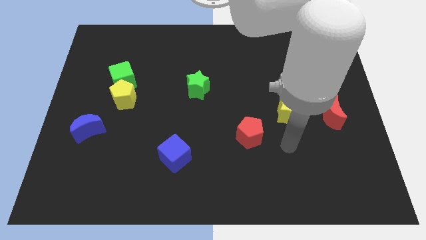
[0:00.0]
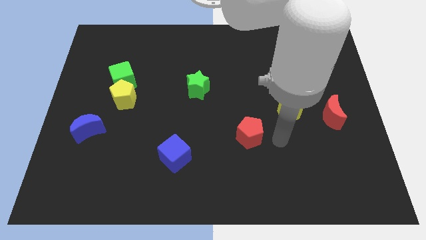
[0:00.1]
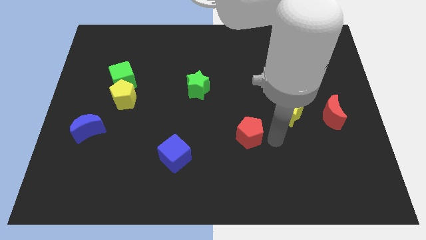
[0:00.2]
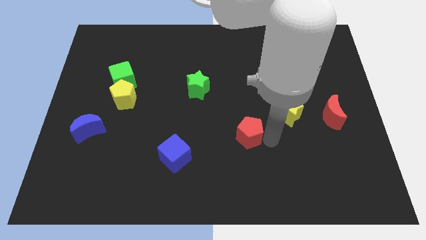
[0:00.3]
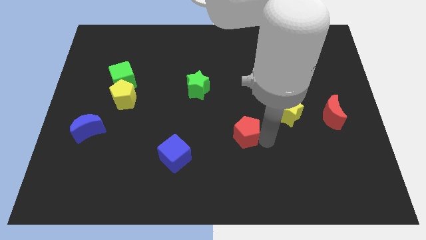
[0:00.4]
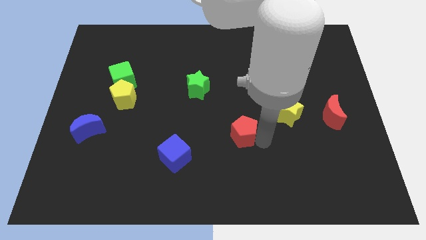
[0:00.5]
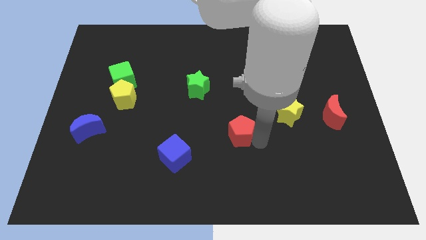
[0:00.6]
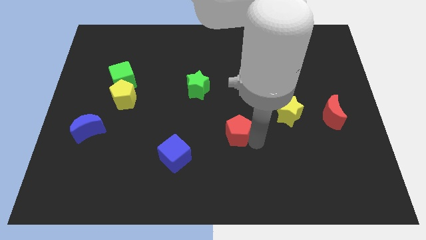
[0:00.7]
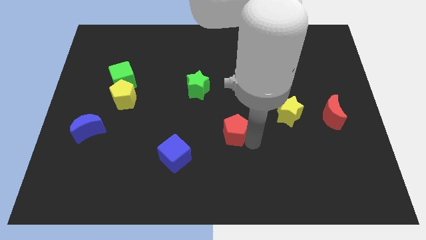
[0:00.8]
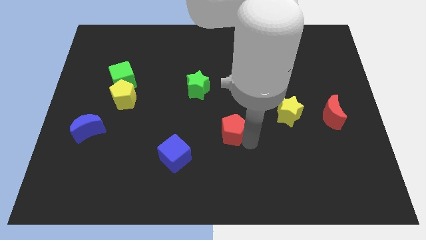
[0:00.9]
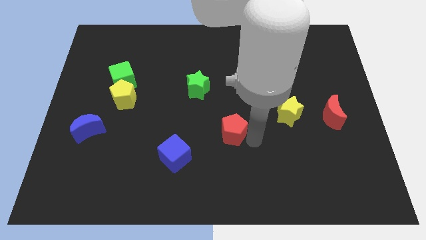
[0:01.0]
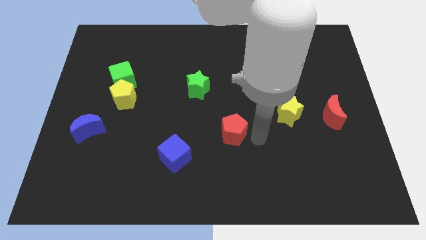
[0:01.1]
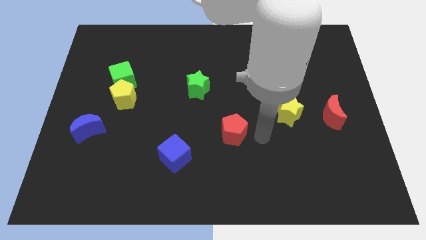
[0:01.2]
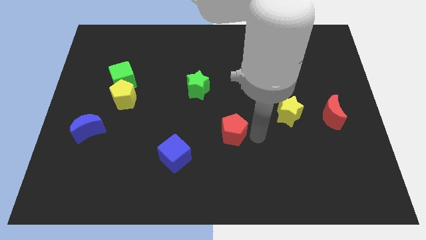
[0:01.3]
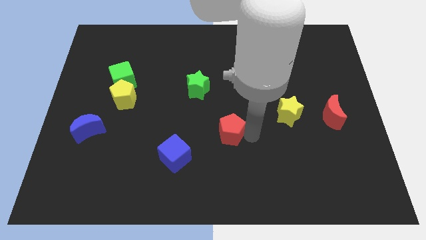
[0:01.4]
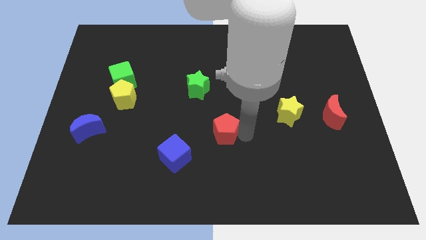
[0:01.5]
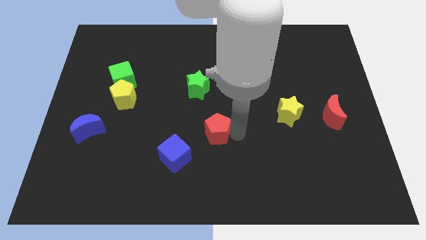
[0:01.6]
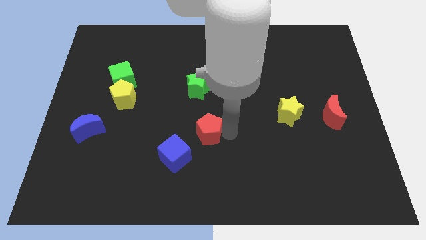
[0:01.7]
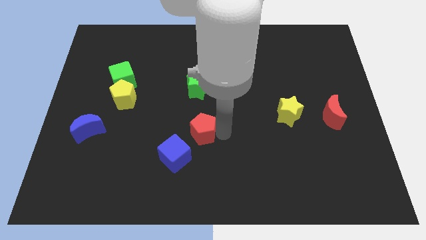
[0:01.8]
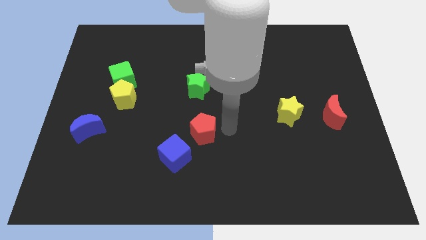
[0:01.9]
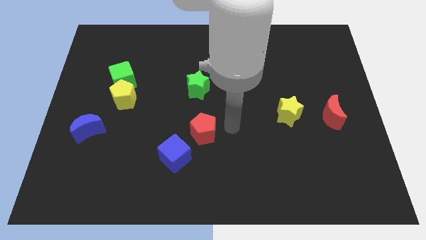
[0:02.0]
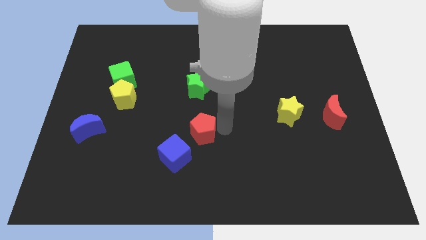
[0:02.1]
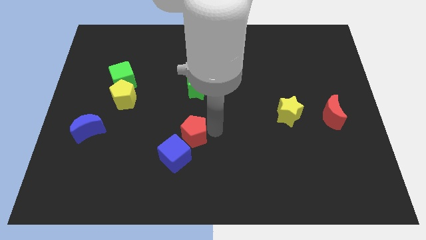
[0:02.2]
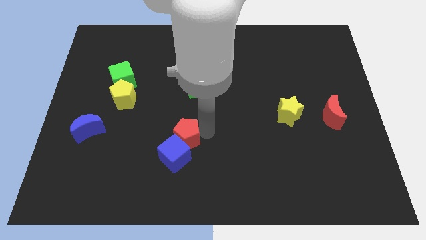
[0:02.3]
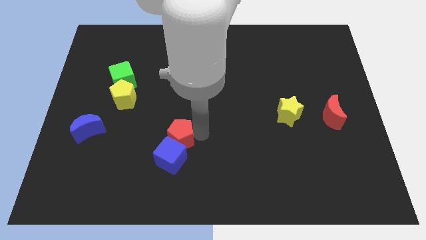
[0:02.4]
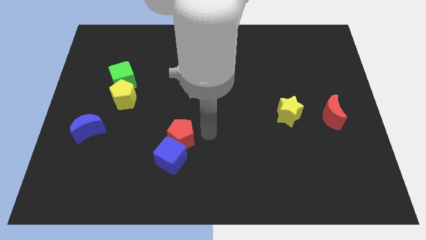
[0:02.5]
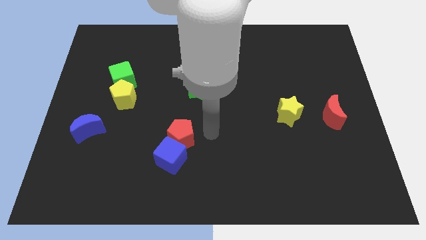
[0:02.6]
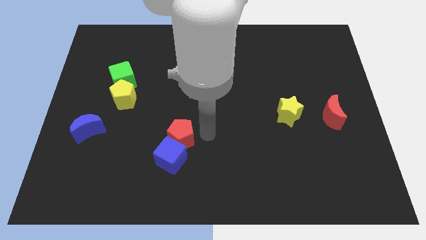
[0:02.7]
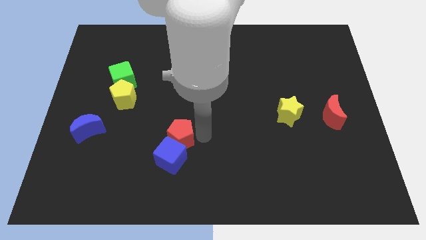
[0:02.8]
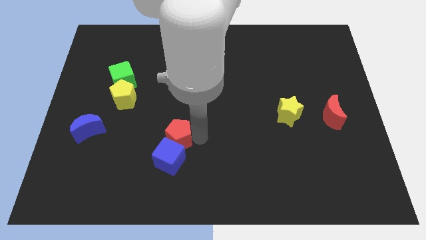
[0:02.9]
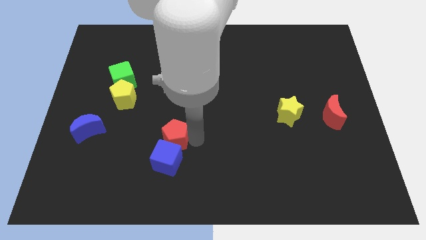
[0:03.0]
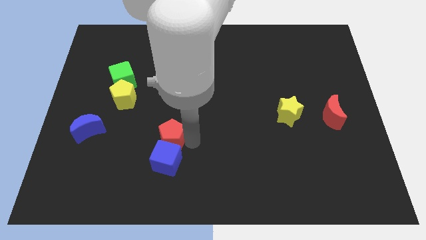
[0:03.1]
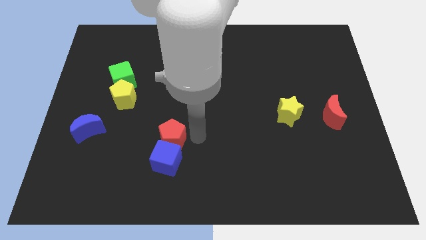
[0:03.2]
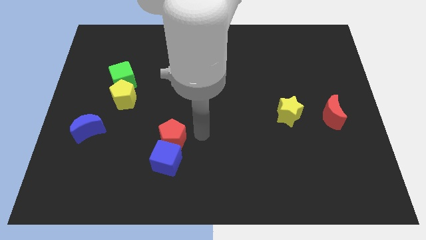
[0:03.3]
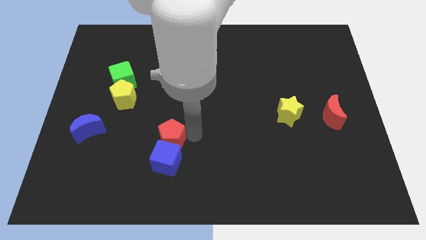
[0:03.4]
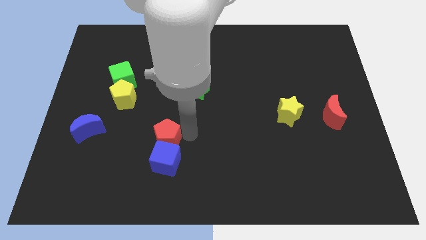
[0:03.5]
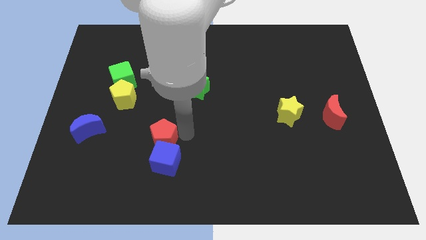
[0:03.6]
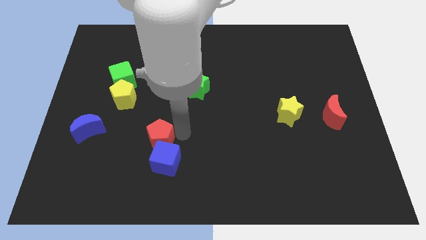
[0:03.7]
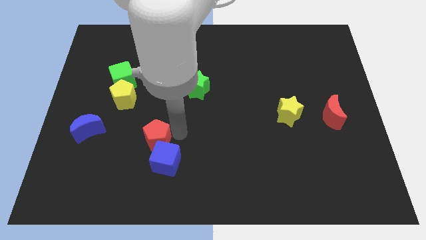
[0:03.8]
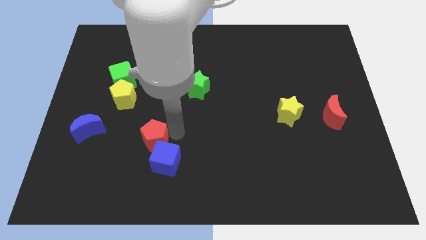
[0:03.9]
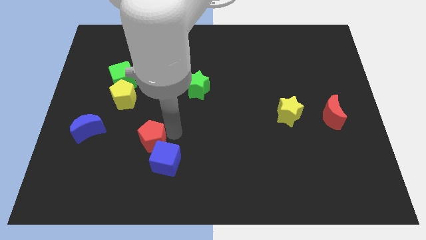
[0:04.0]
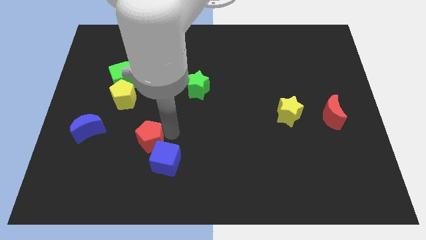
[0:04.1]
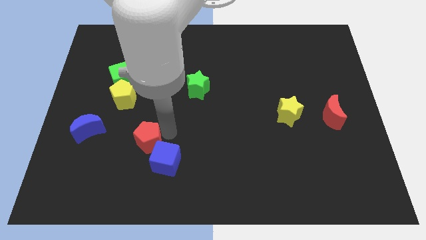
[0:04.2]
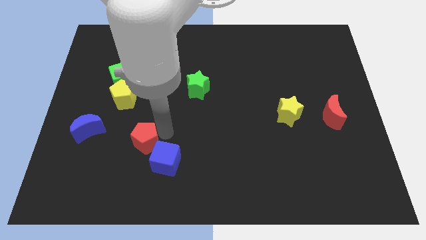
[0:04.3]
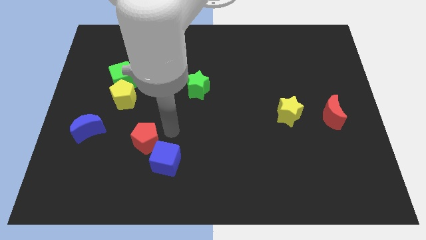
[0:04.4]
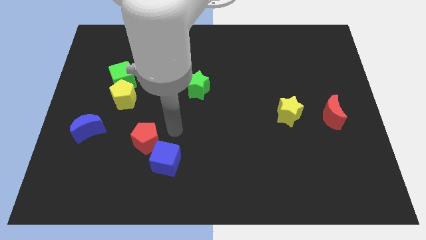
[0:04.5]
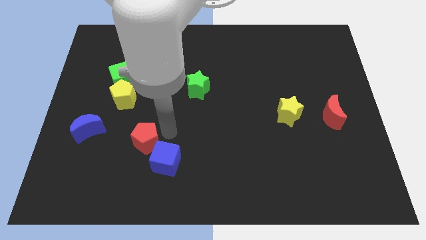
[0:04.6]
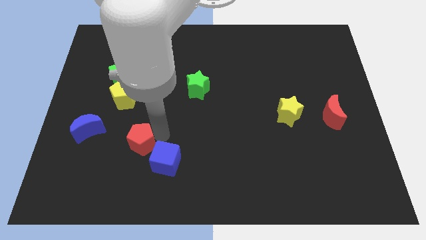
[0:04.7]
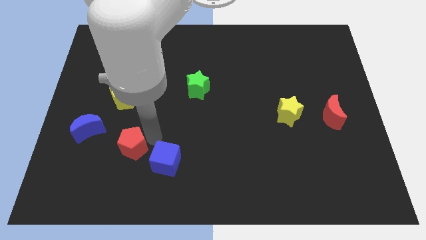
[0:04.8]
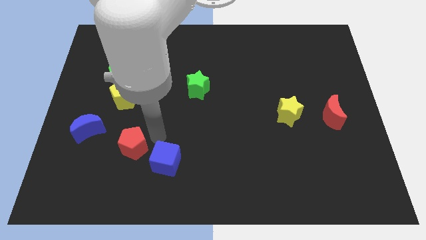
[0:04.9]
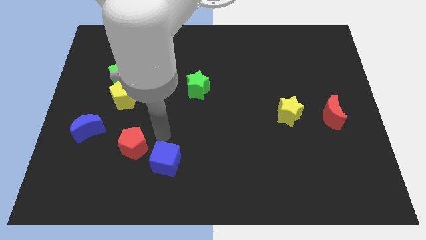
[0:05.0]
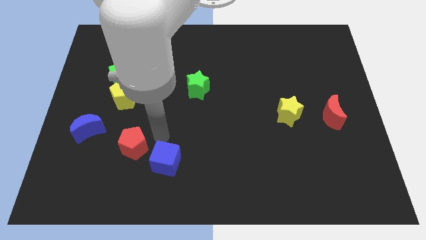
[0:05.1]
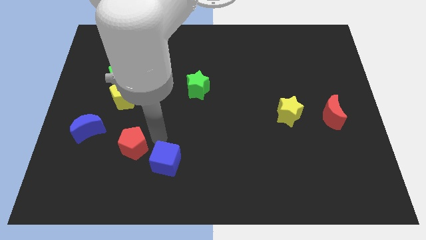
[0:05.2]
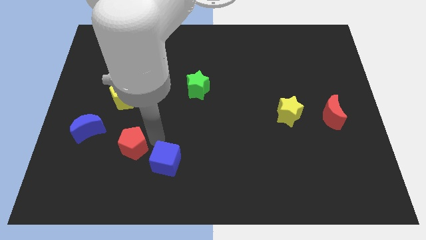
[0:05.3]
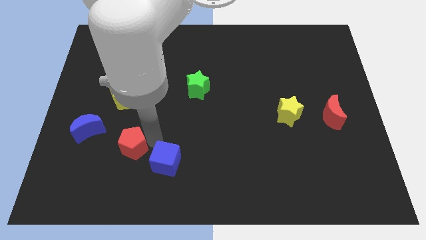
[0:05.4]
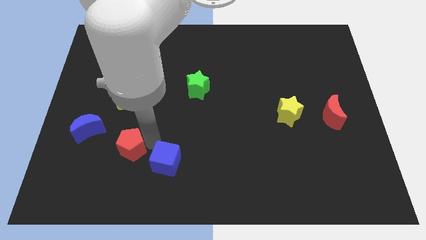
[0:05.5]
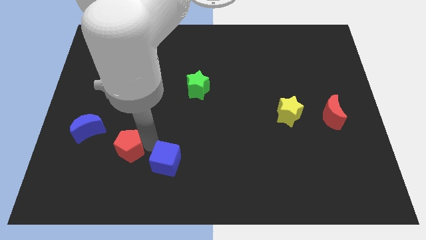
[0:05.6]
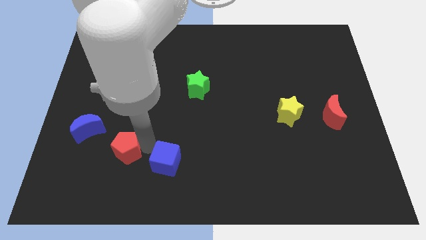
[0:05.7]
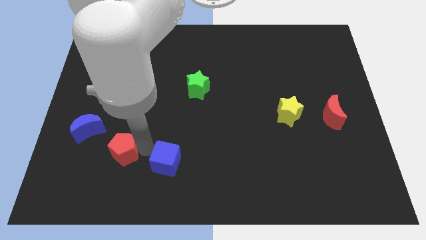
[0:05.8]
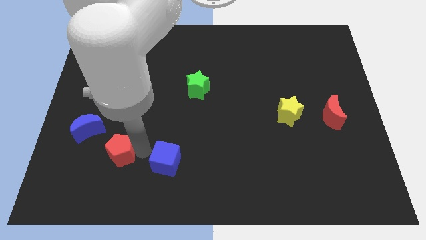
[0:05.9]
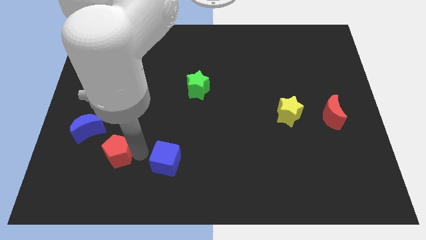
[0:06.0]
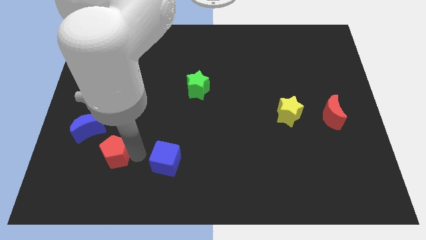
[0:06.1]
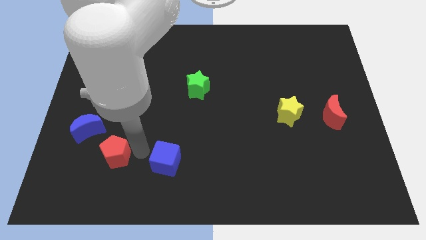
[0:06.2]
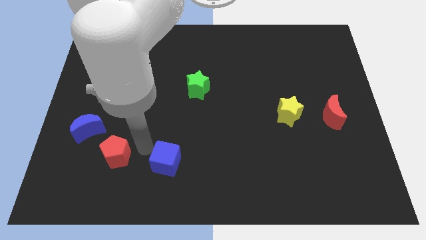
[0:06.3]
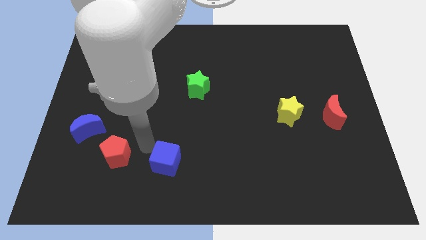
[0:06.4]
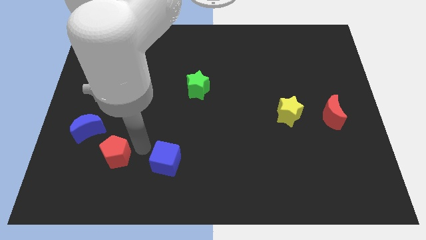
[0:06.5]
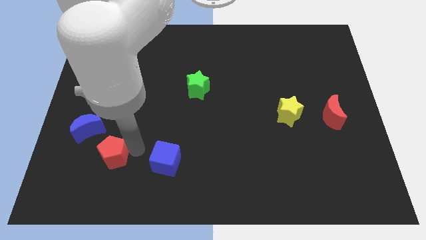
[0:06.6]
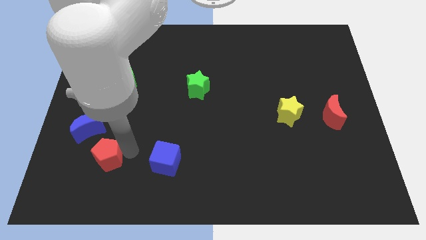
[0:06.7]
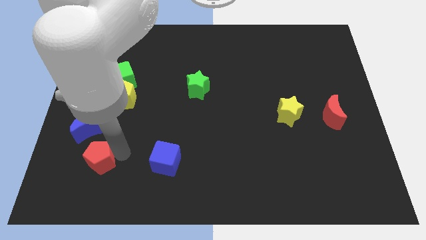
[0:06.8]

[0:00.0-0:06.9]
put the red pentagon below the blue moon
